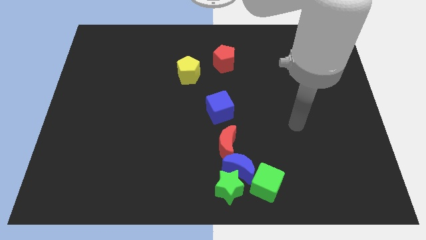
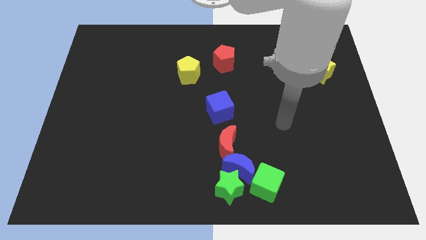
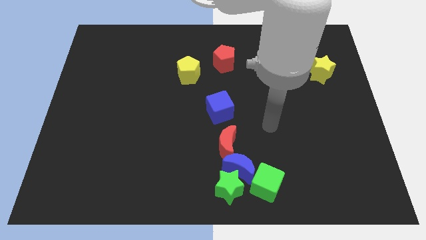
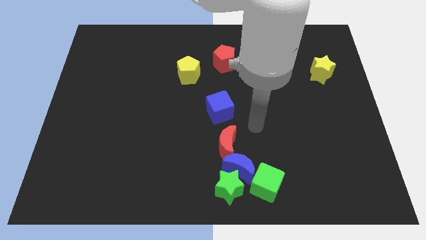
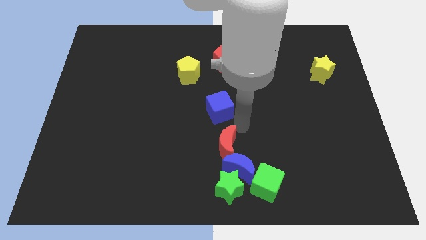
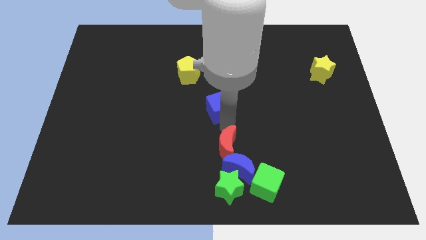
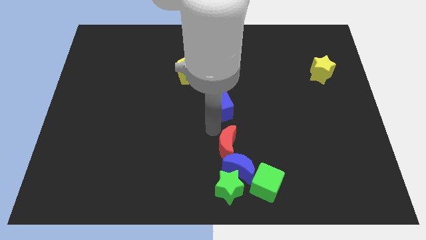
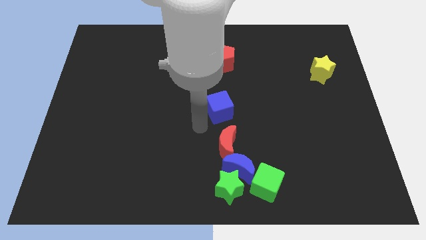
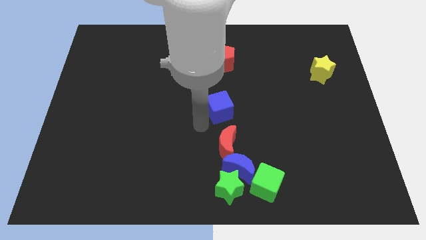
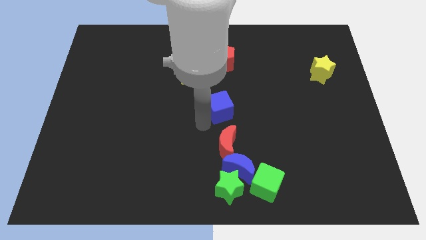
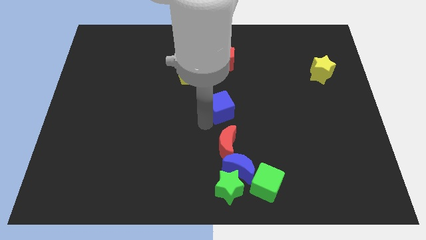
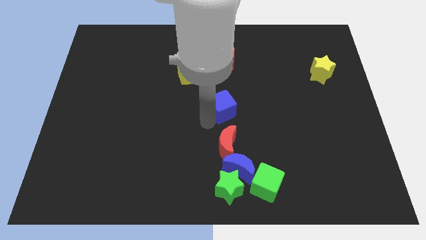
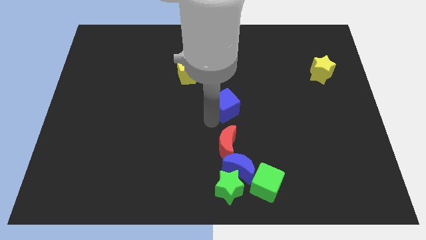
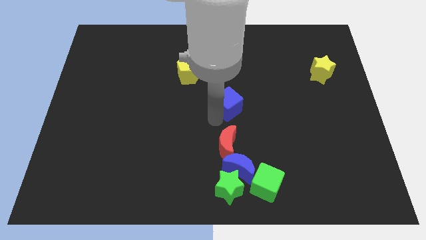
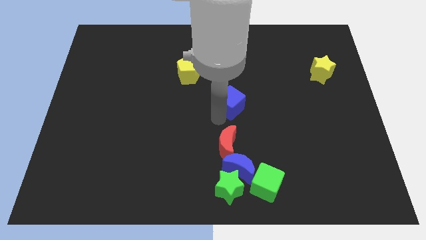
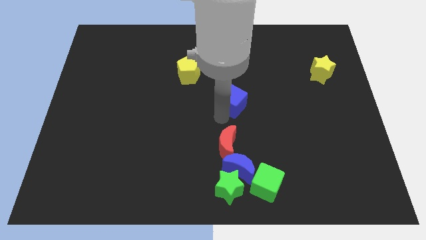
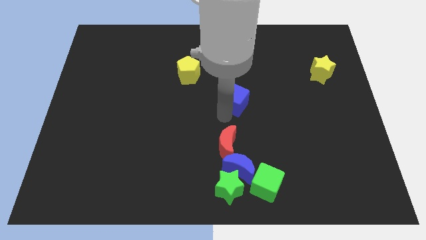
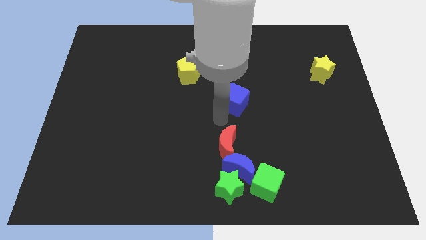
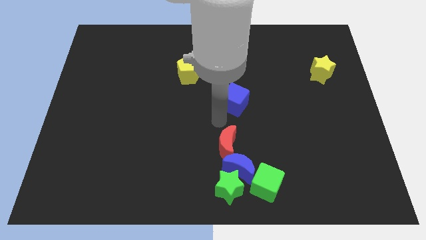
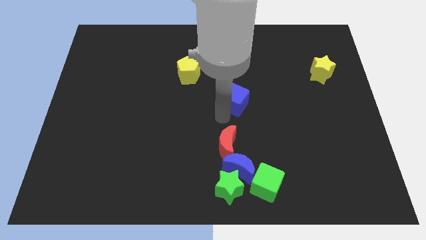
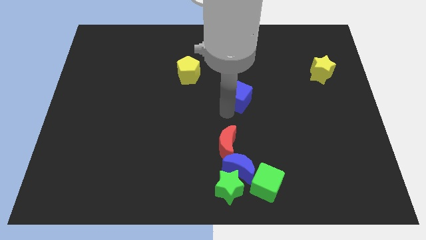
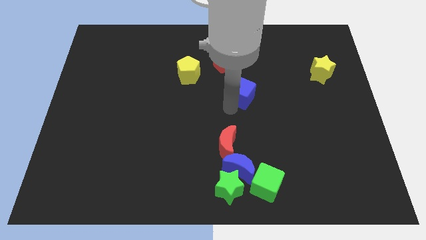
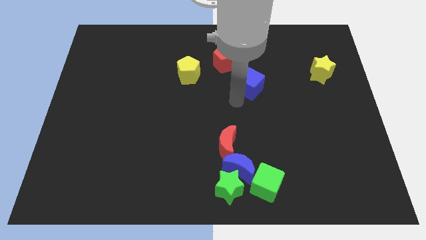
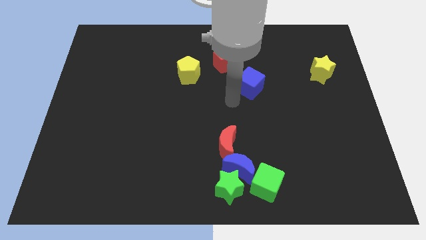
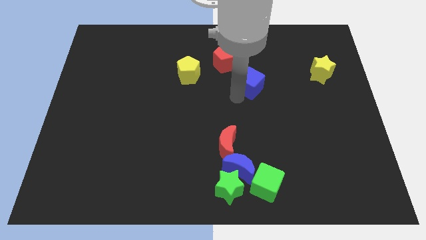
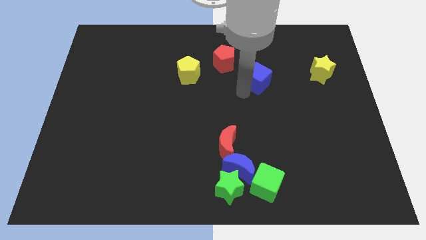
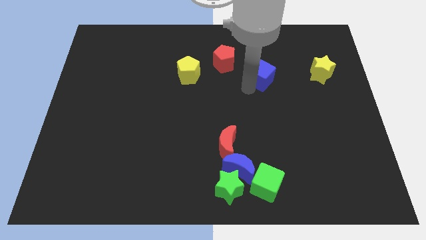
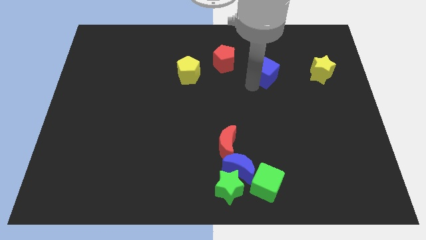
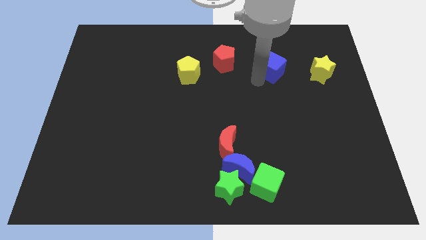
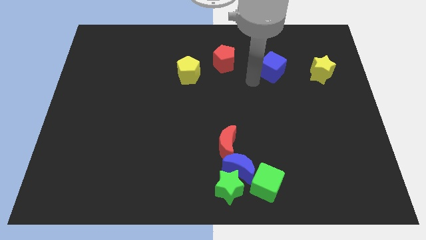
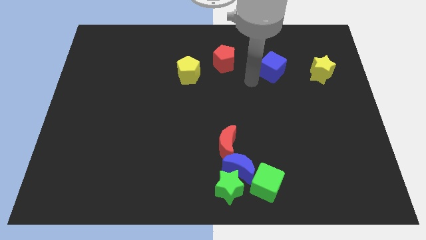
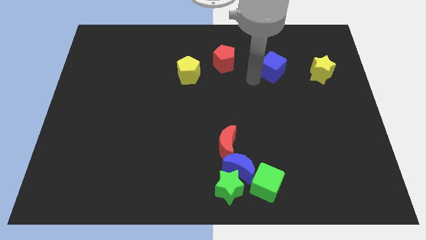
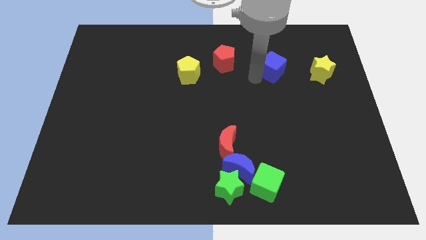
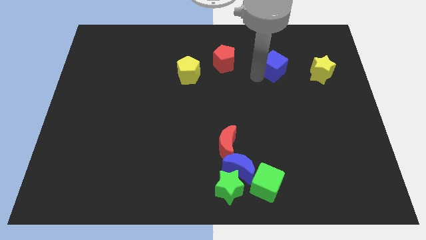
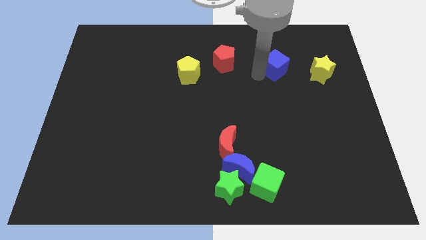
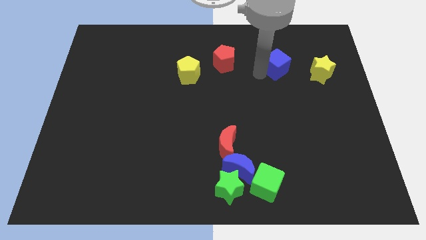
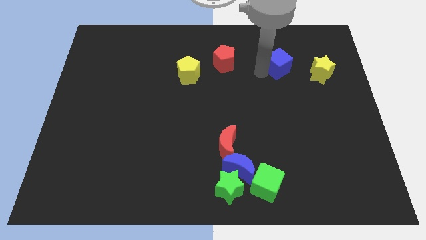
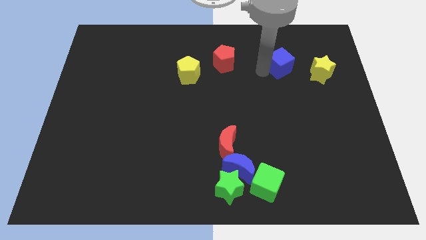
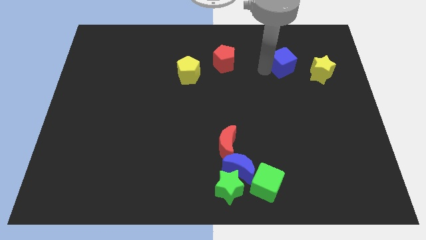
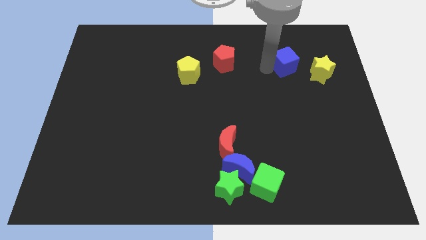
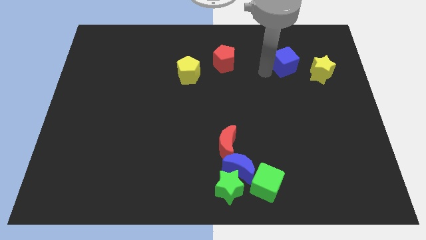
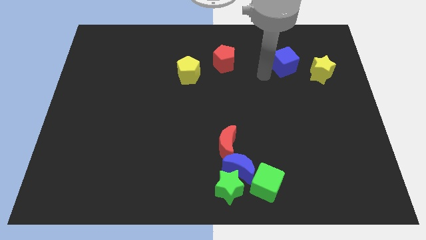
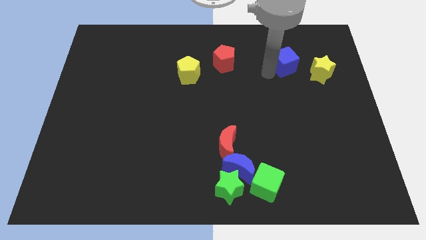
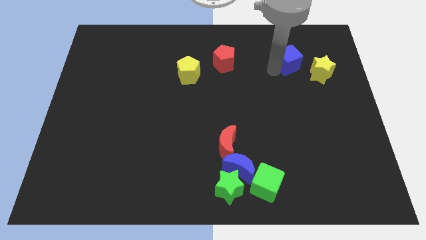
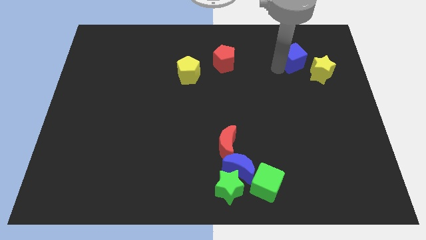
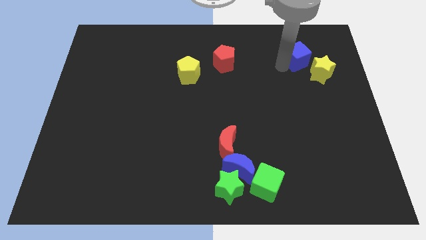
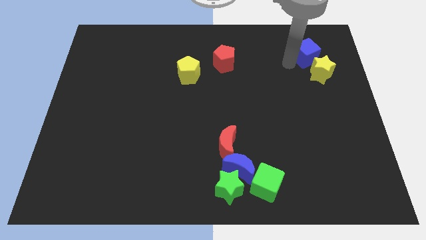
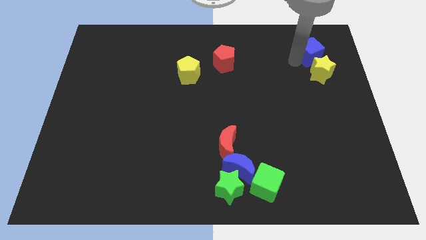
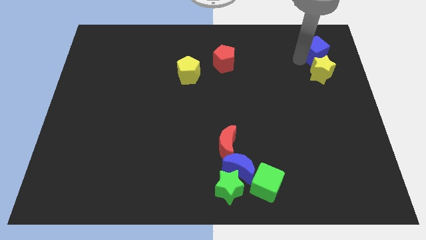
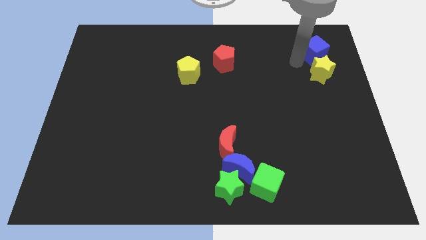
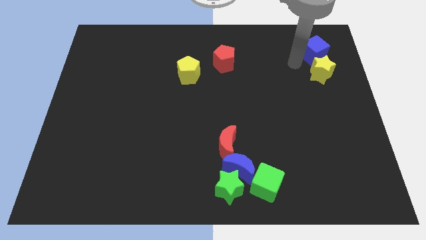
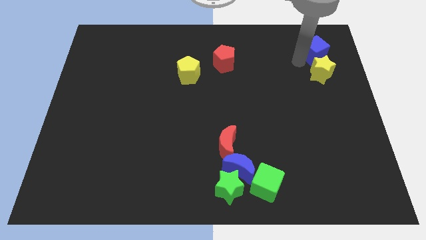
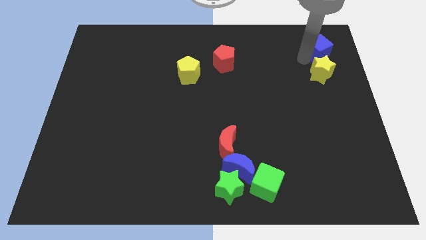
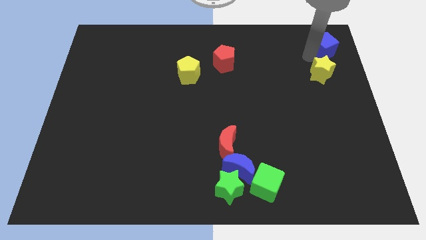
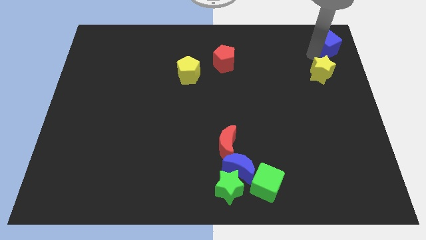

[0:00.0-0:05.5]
put the blue cube to the upper right corner

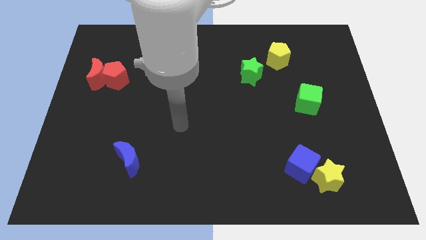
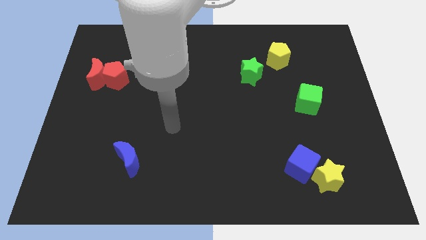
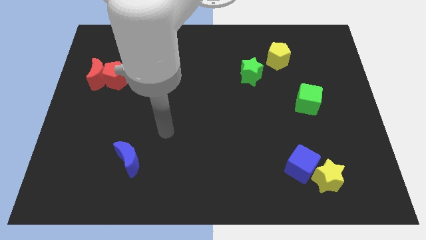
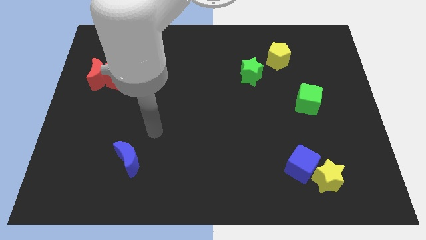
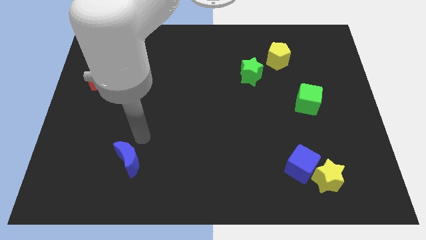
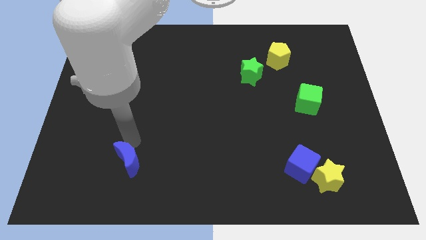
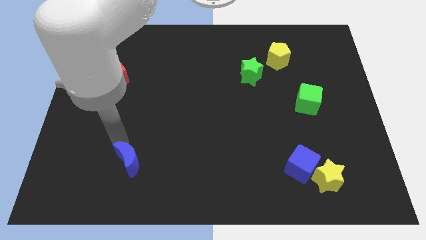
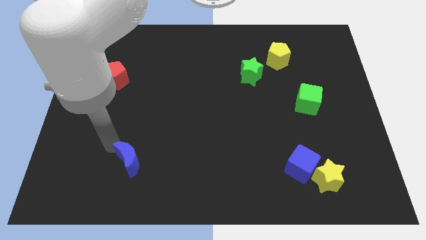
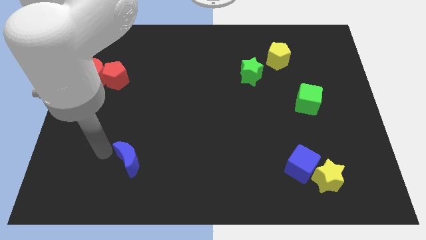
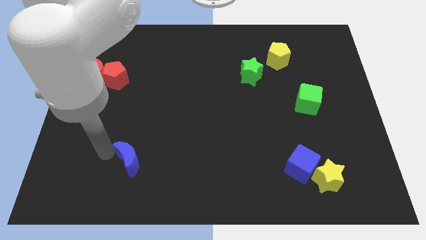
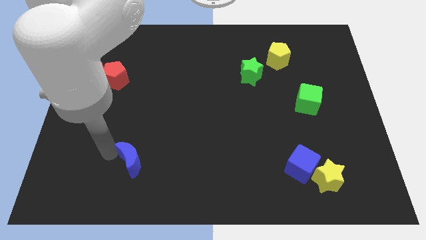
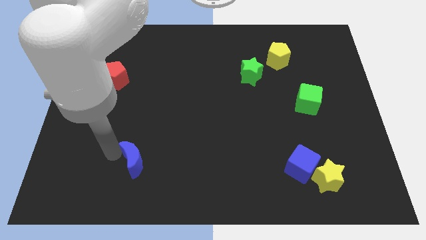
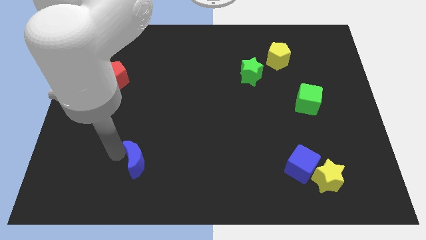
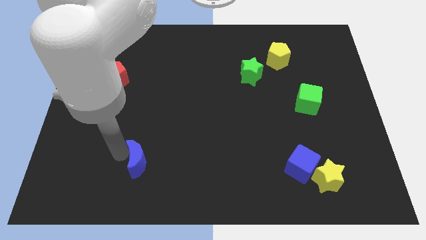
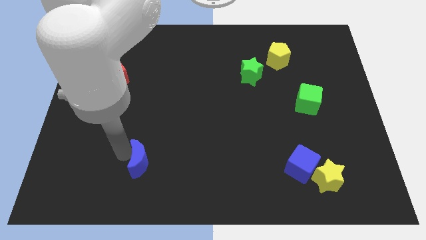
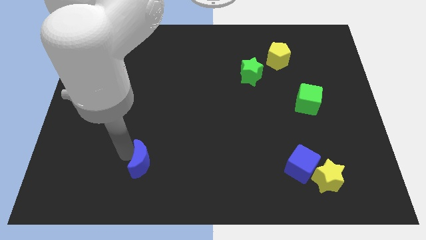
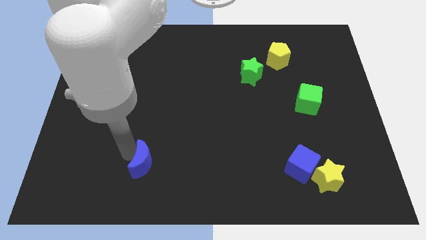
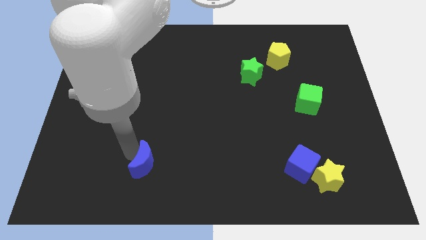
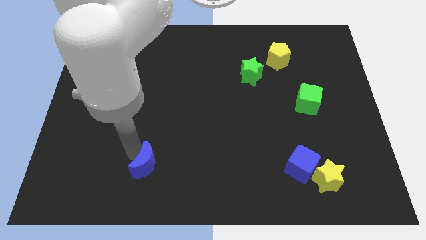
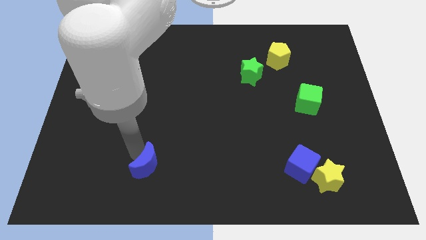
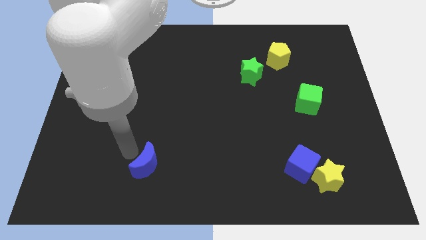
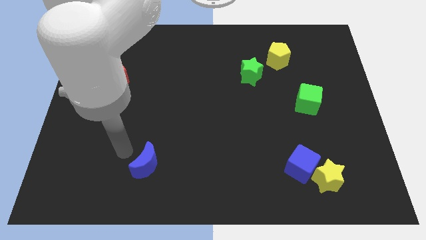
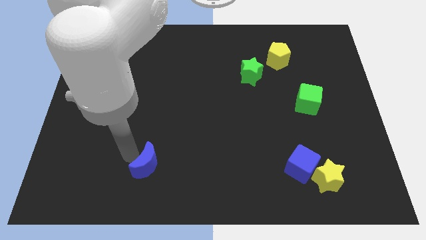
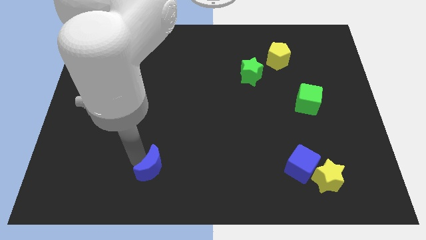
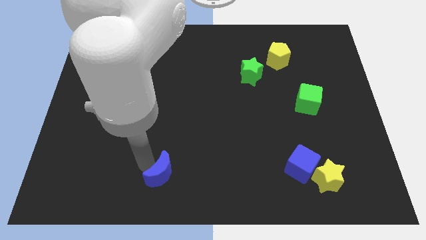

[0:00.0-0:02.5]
move the blue moon to the bottom side
